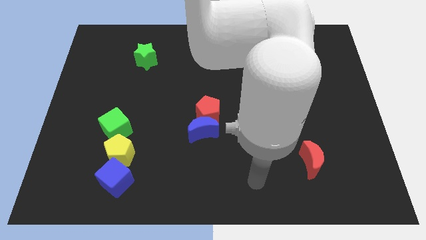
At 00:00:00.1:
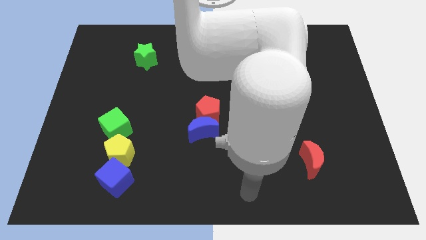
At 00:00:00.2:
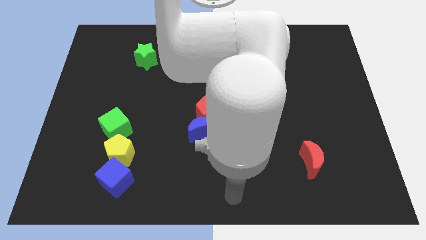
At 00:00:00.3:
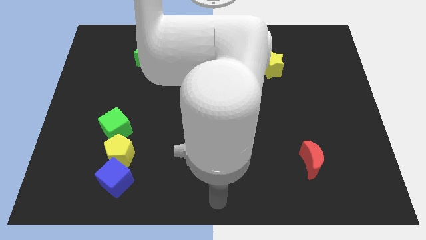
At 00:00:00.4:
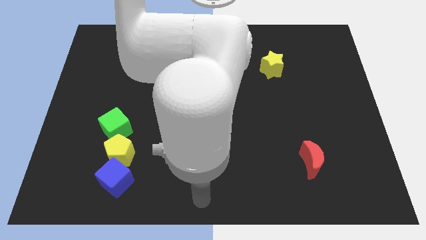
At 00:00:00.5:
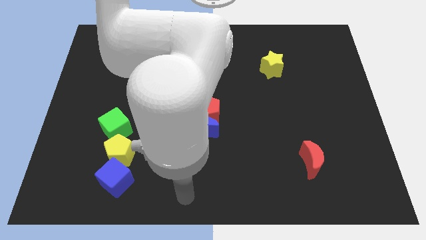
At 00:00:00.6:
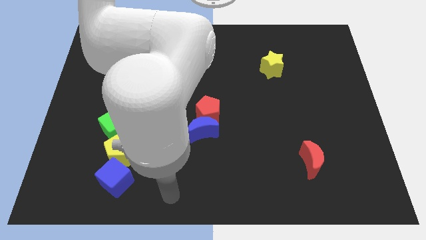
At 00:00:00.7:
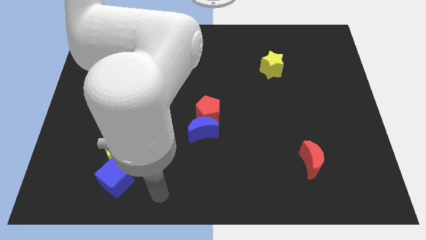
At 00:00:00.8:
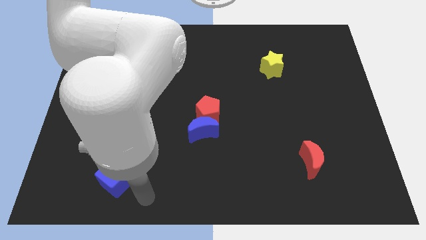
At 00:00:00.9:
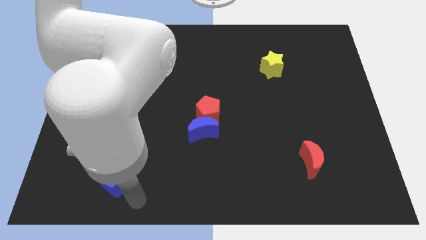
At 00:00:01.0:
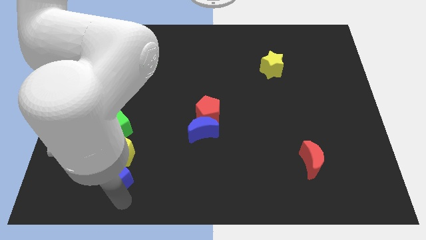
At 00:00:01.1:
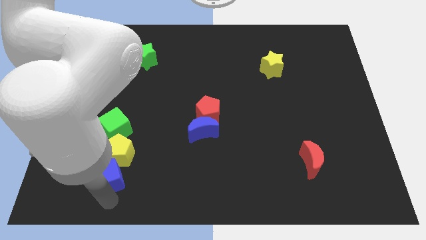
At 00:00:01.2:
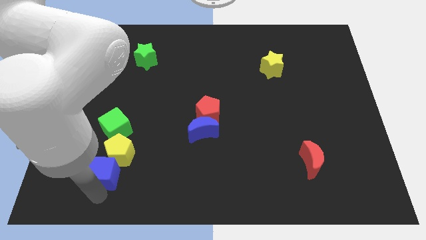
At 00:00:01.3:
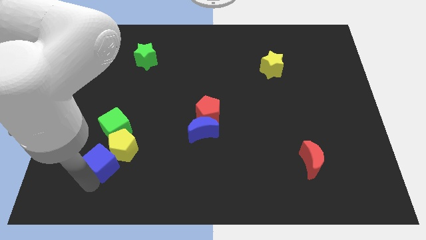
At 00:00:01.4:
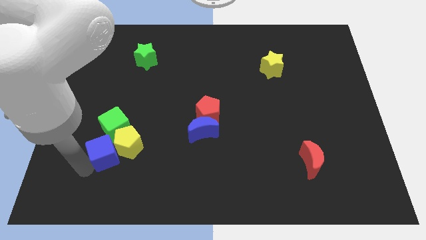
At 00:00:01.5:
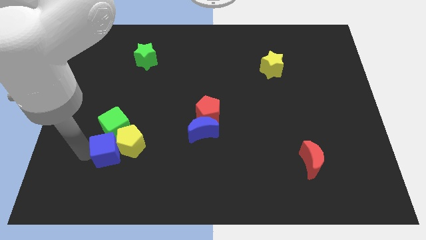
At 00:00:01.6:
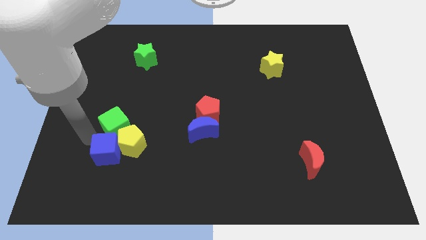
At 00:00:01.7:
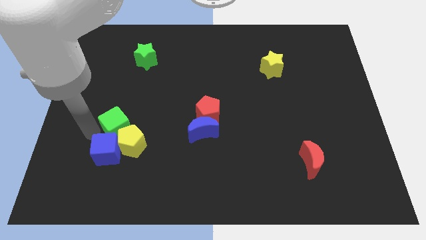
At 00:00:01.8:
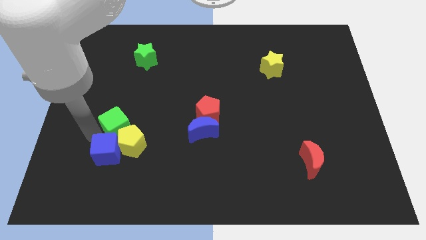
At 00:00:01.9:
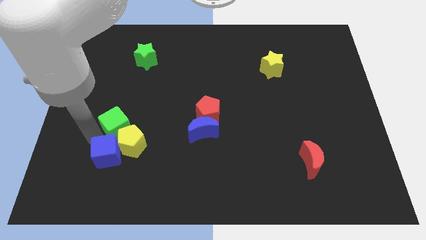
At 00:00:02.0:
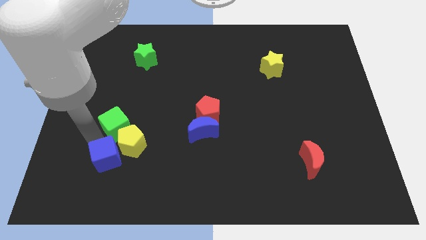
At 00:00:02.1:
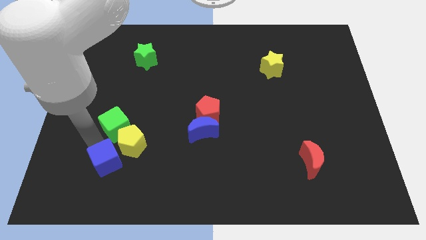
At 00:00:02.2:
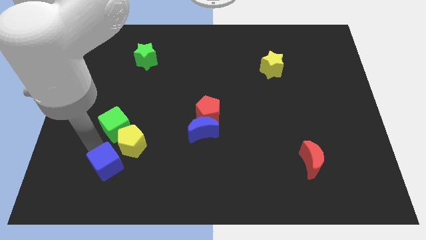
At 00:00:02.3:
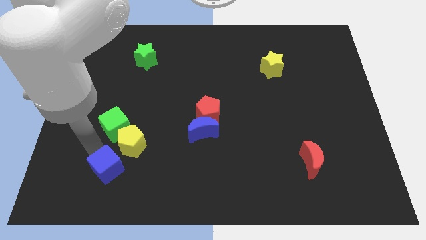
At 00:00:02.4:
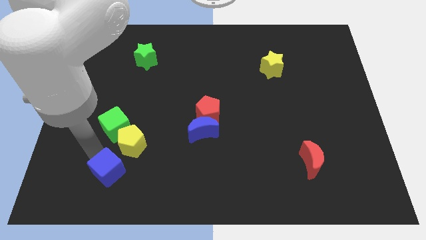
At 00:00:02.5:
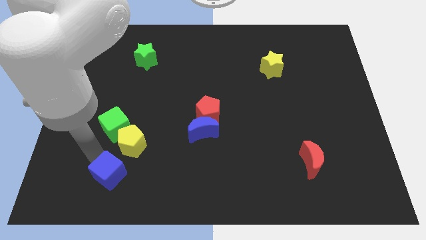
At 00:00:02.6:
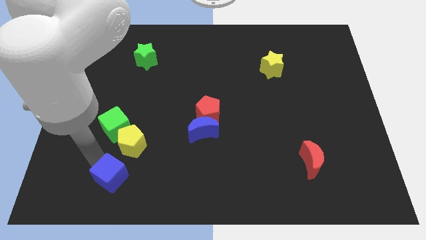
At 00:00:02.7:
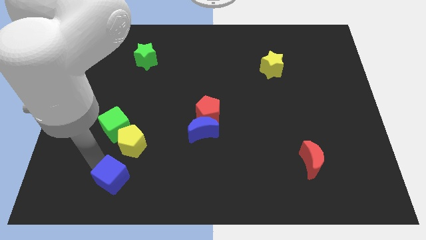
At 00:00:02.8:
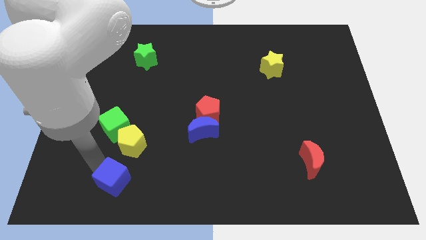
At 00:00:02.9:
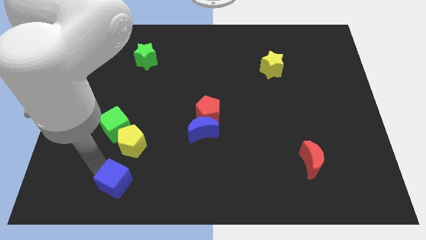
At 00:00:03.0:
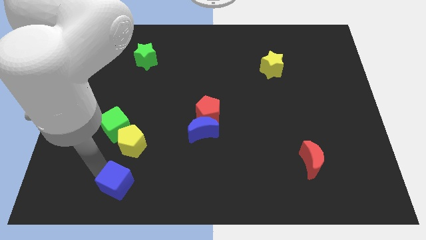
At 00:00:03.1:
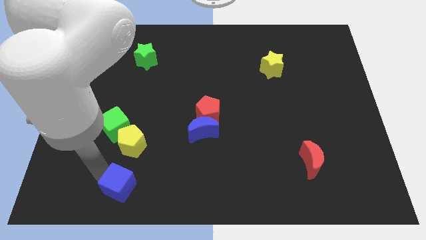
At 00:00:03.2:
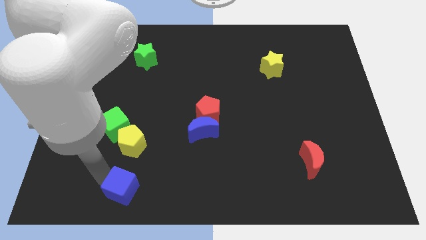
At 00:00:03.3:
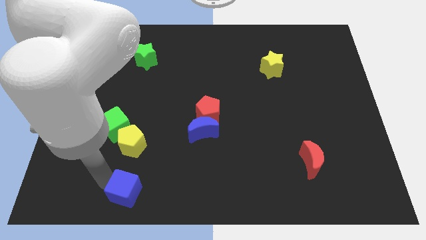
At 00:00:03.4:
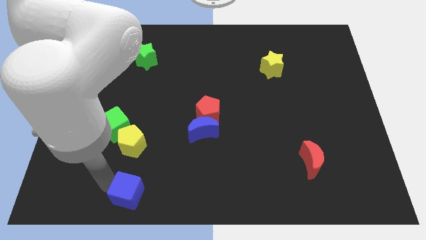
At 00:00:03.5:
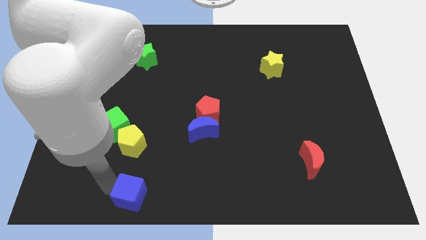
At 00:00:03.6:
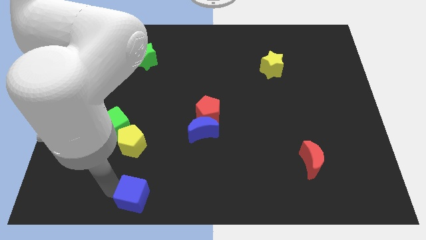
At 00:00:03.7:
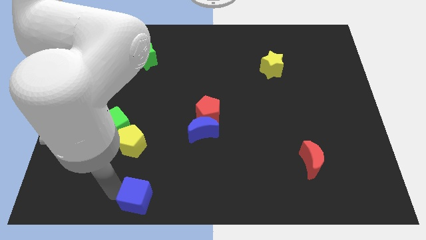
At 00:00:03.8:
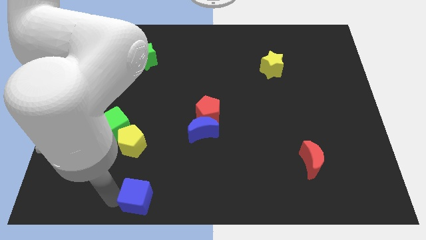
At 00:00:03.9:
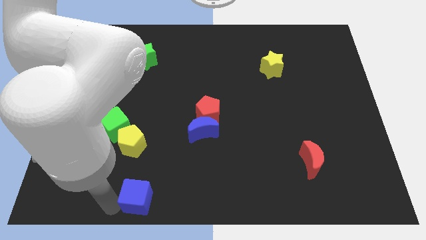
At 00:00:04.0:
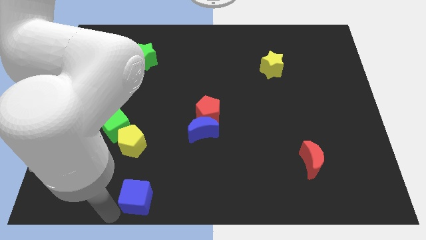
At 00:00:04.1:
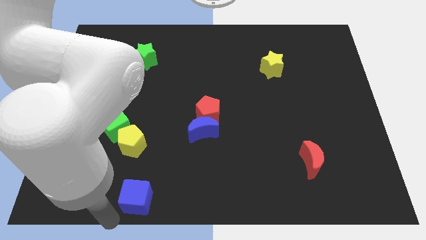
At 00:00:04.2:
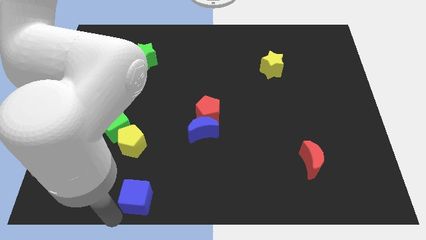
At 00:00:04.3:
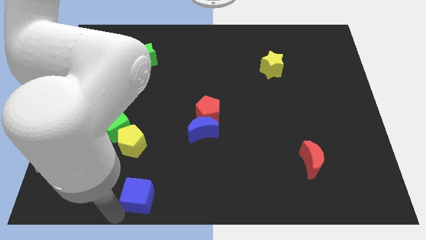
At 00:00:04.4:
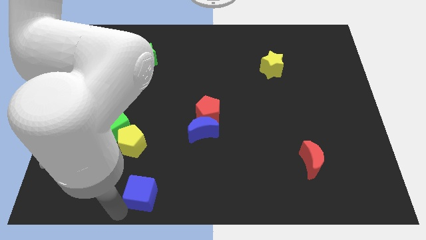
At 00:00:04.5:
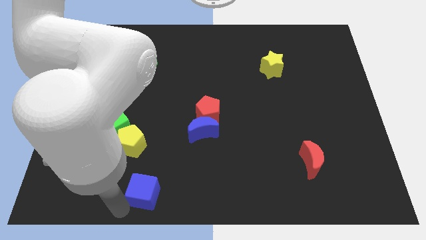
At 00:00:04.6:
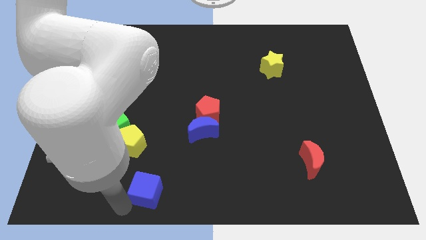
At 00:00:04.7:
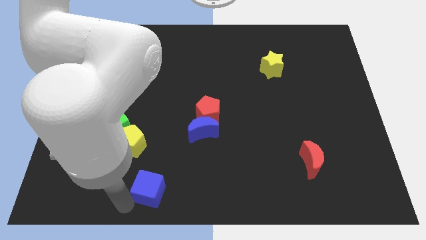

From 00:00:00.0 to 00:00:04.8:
move the blue cube right a little

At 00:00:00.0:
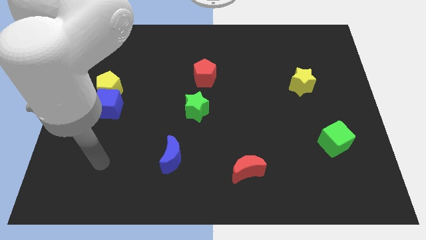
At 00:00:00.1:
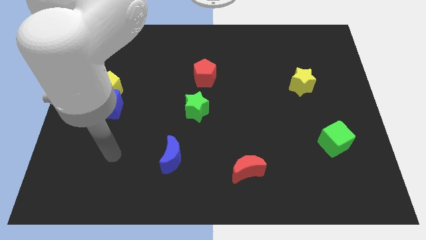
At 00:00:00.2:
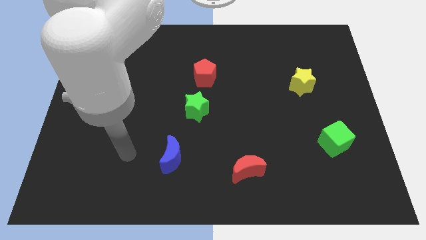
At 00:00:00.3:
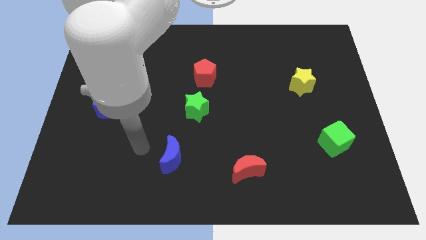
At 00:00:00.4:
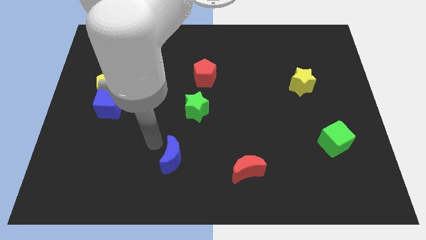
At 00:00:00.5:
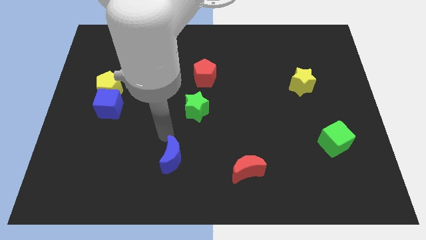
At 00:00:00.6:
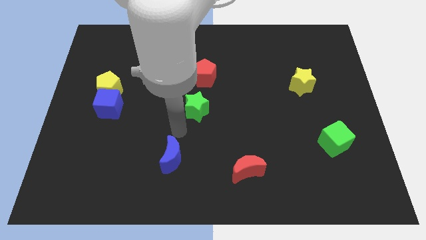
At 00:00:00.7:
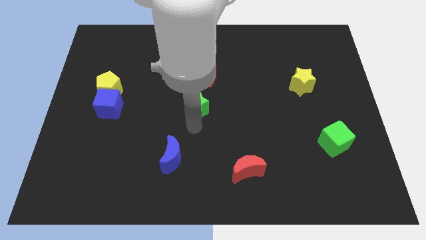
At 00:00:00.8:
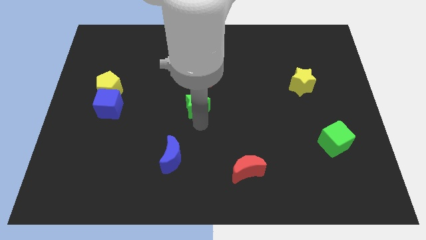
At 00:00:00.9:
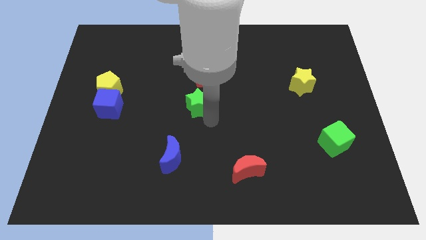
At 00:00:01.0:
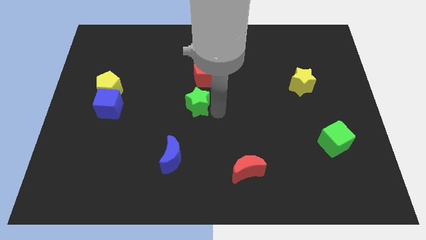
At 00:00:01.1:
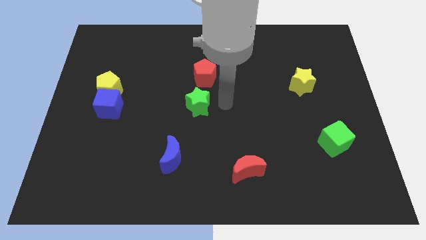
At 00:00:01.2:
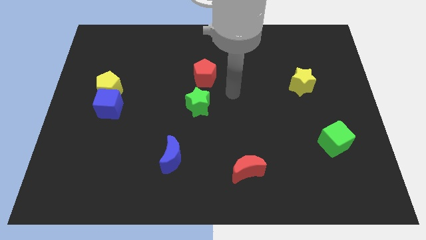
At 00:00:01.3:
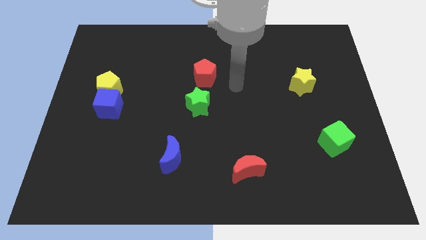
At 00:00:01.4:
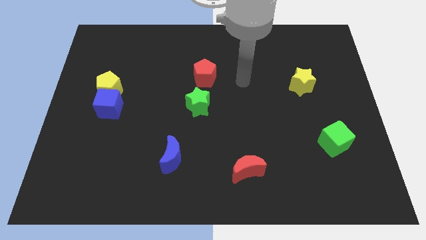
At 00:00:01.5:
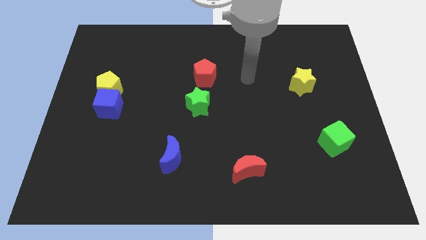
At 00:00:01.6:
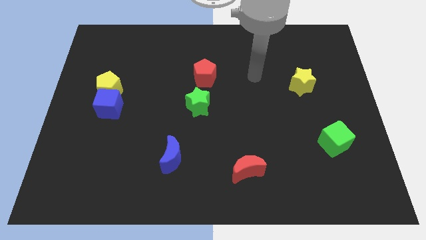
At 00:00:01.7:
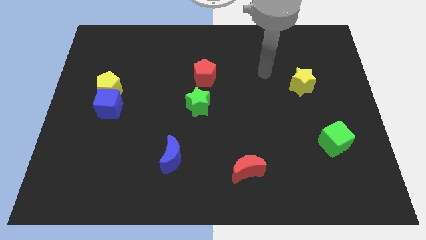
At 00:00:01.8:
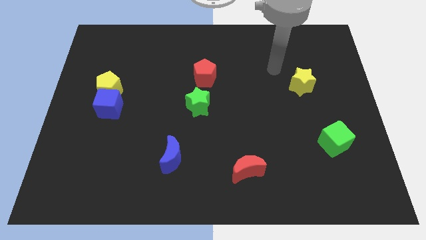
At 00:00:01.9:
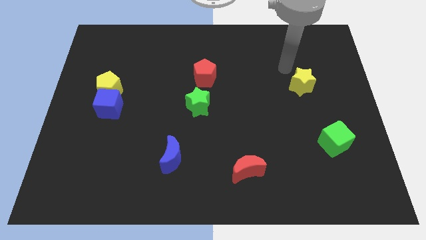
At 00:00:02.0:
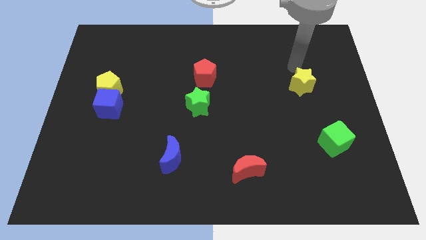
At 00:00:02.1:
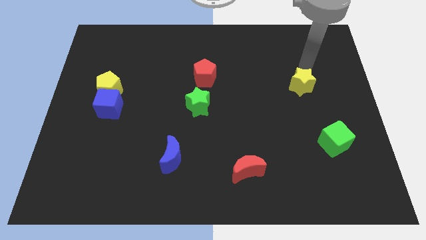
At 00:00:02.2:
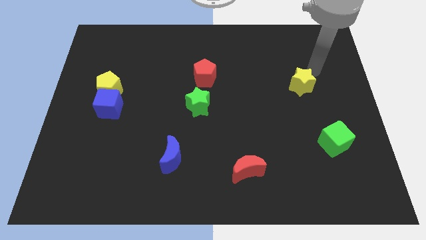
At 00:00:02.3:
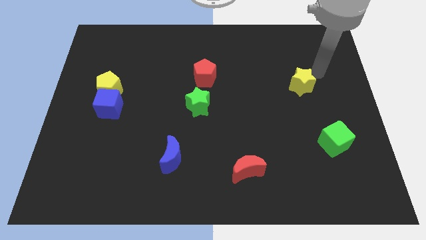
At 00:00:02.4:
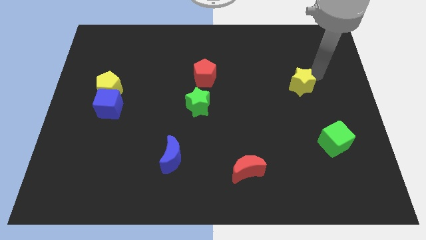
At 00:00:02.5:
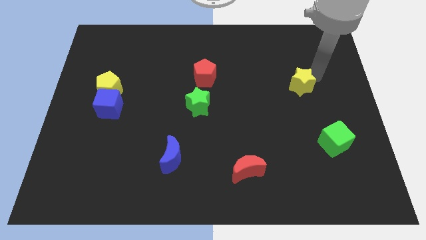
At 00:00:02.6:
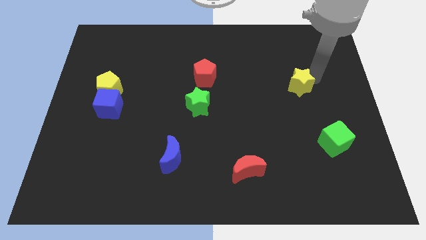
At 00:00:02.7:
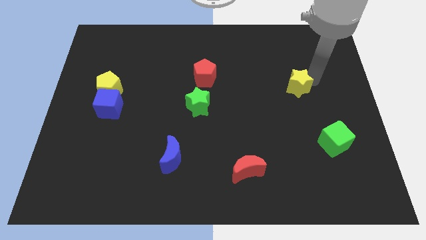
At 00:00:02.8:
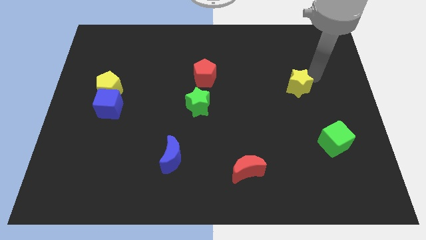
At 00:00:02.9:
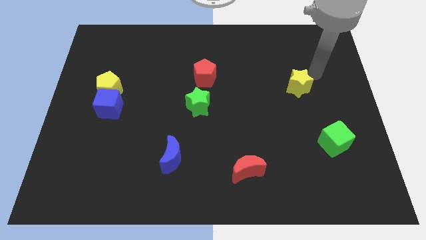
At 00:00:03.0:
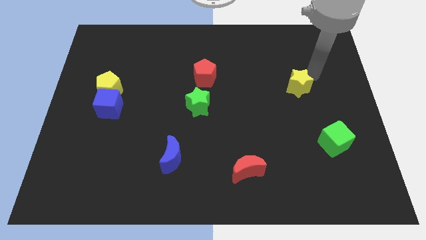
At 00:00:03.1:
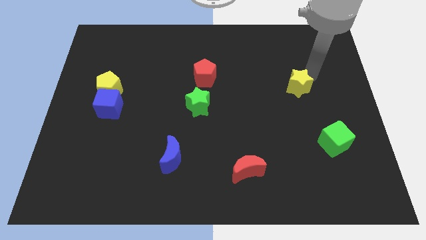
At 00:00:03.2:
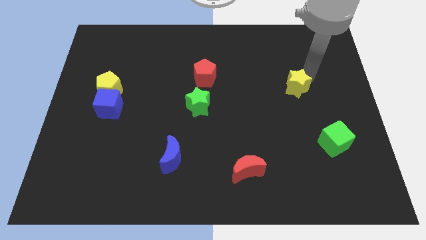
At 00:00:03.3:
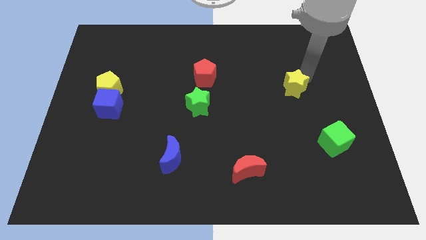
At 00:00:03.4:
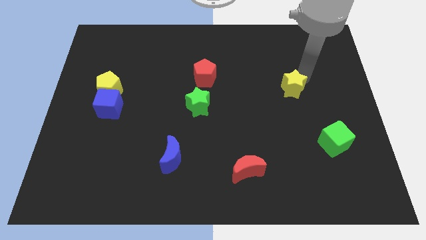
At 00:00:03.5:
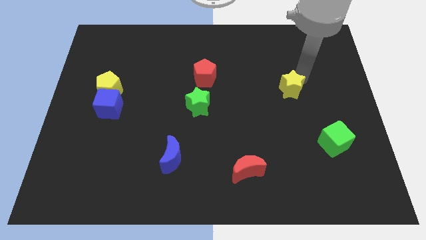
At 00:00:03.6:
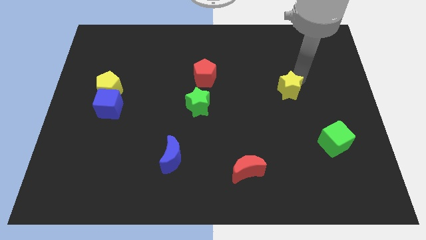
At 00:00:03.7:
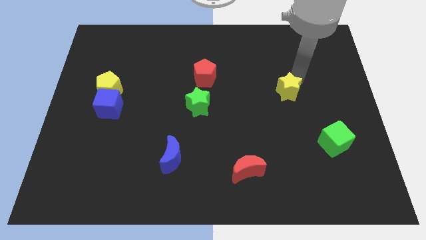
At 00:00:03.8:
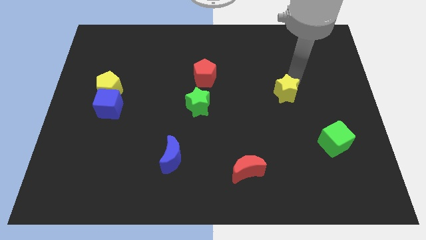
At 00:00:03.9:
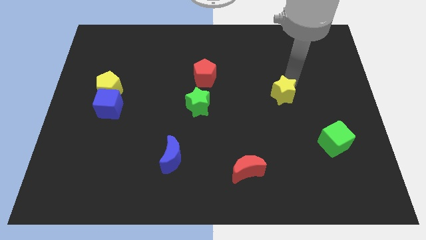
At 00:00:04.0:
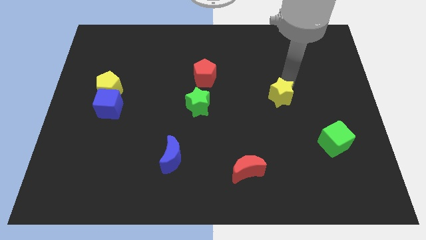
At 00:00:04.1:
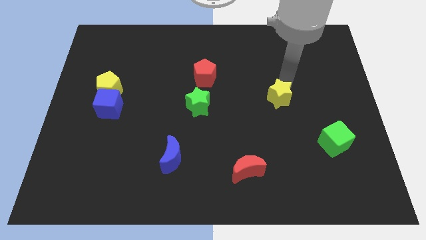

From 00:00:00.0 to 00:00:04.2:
push the yellow star diagonally down and left a little bit
